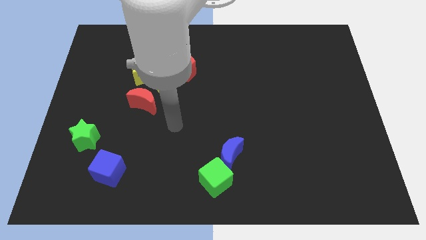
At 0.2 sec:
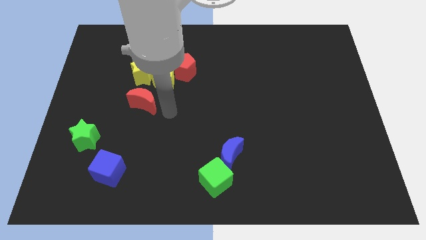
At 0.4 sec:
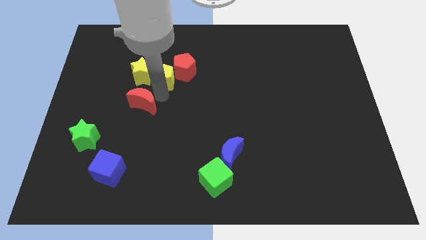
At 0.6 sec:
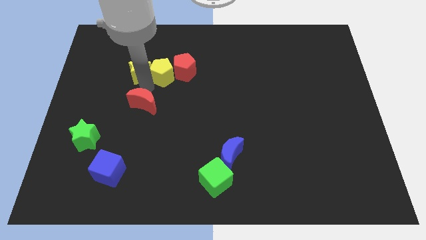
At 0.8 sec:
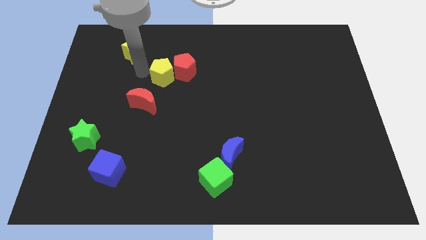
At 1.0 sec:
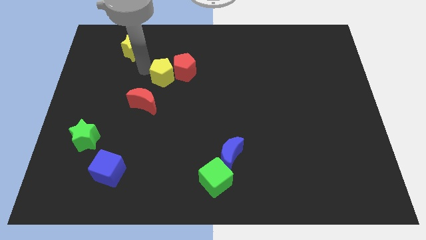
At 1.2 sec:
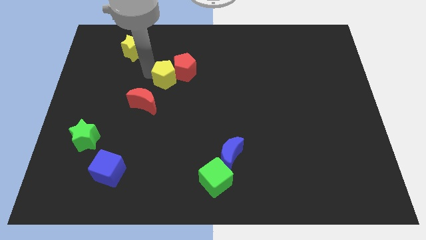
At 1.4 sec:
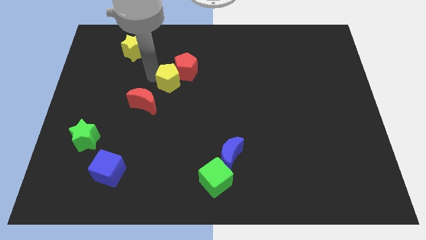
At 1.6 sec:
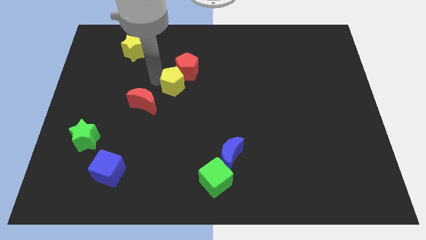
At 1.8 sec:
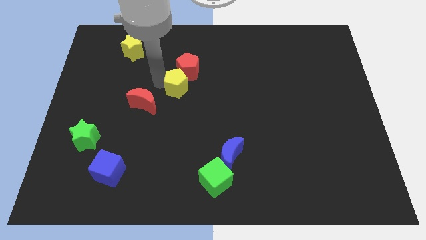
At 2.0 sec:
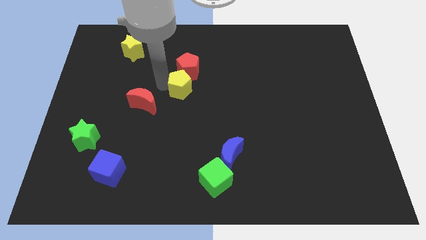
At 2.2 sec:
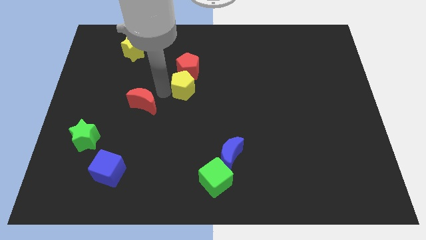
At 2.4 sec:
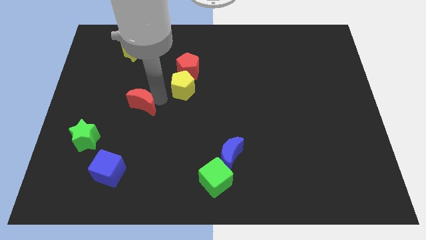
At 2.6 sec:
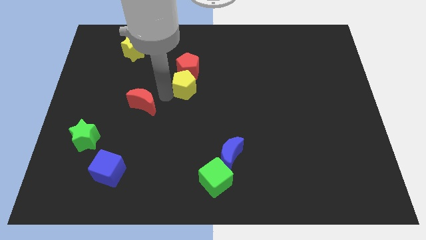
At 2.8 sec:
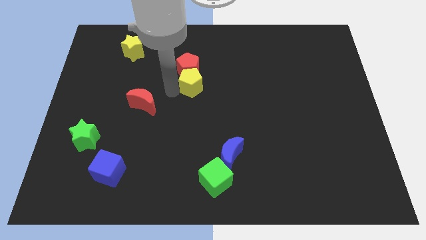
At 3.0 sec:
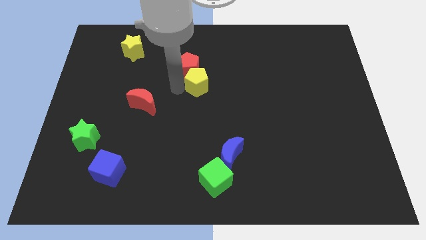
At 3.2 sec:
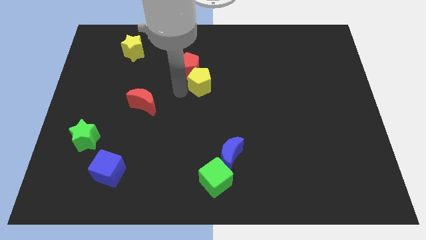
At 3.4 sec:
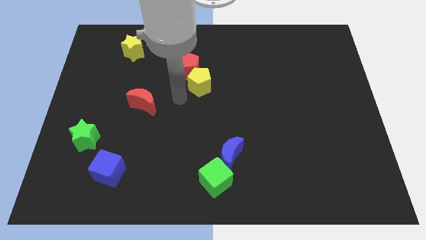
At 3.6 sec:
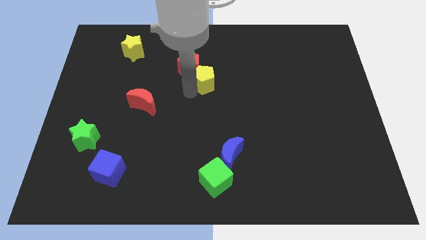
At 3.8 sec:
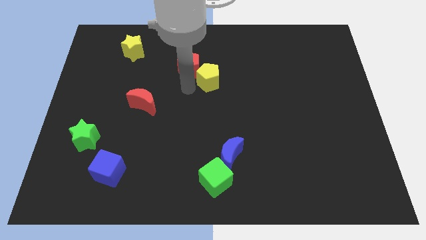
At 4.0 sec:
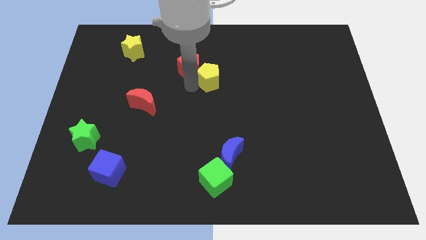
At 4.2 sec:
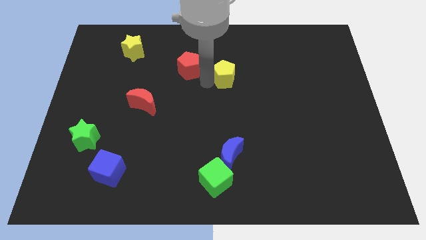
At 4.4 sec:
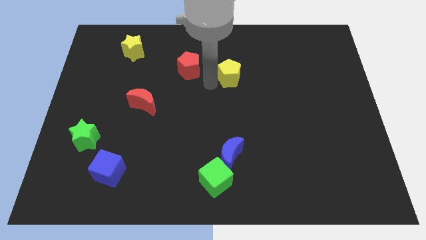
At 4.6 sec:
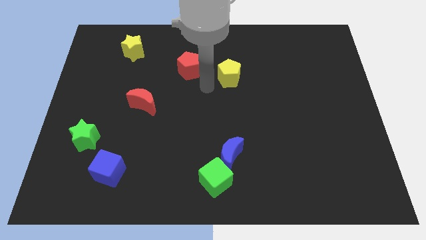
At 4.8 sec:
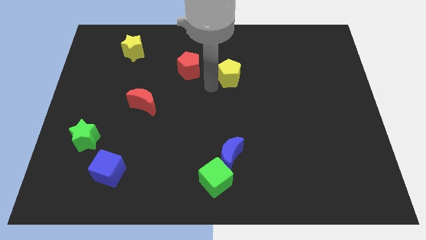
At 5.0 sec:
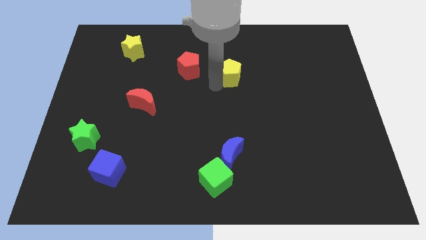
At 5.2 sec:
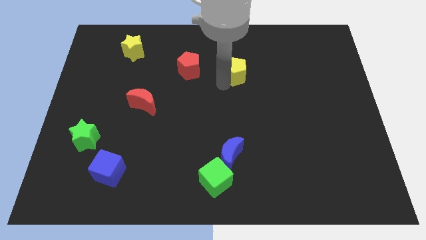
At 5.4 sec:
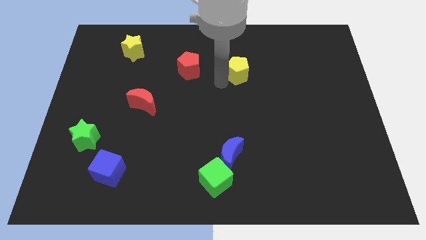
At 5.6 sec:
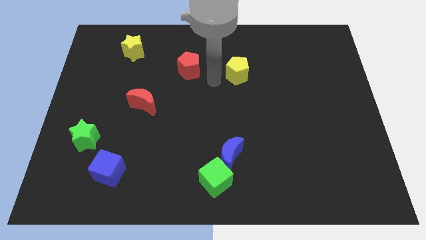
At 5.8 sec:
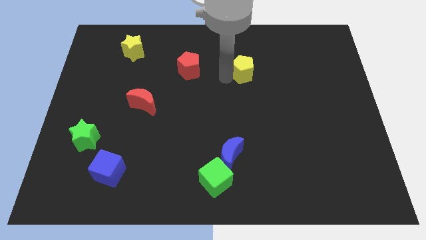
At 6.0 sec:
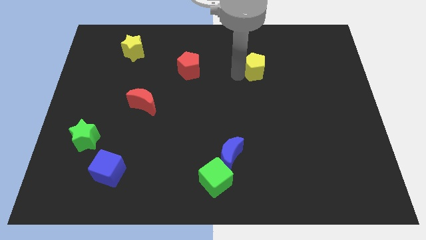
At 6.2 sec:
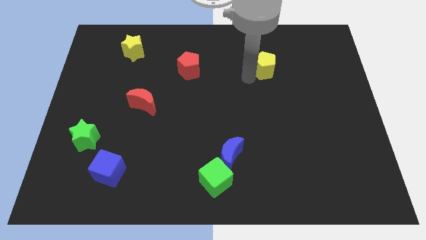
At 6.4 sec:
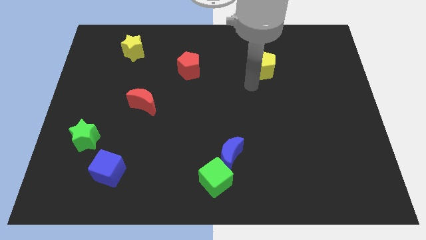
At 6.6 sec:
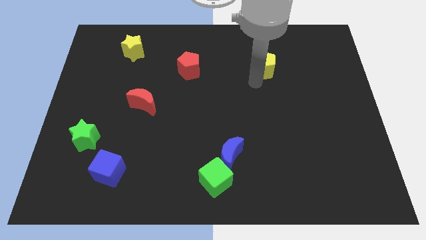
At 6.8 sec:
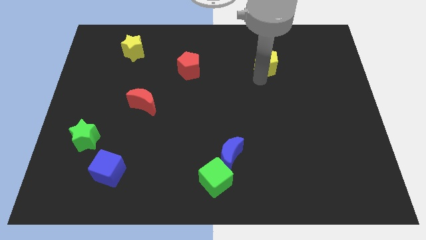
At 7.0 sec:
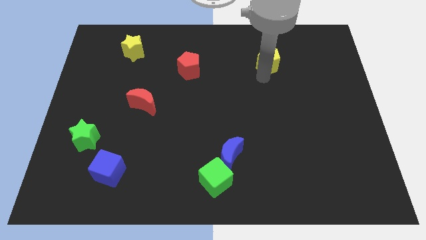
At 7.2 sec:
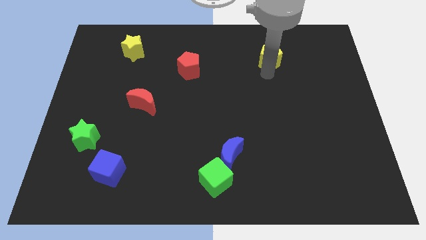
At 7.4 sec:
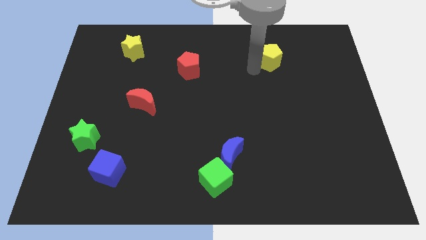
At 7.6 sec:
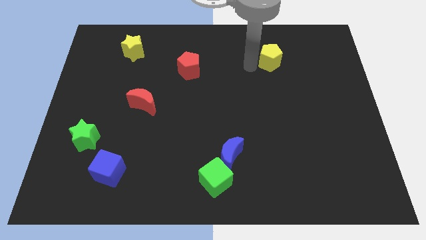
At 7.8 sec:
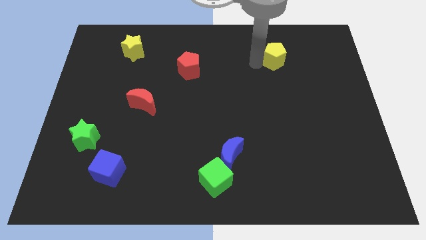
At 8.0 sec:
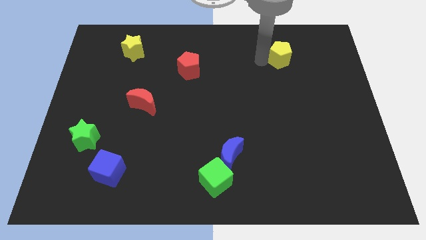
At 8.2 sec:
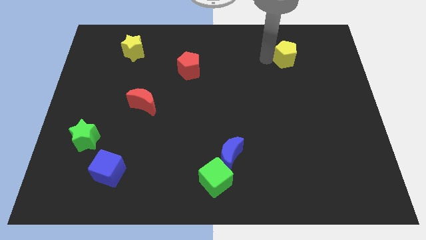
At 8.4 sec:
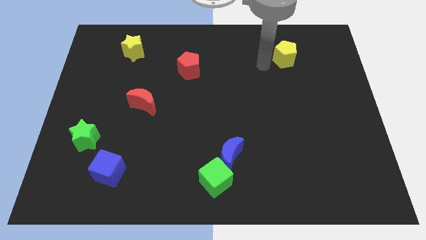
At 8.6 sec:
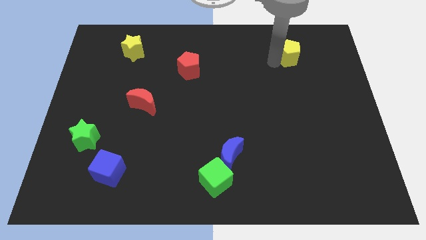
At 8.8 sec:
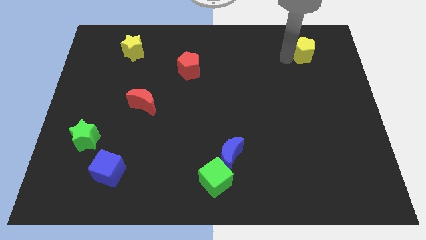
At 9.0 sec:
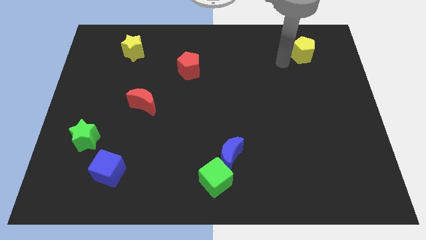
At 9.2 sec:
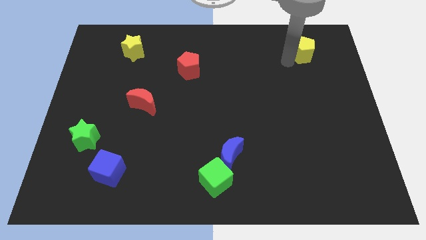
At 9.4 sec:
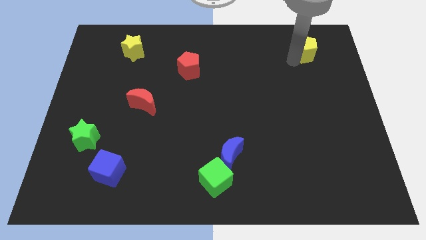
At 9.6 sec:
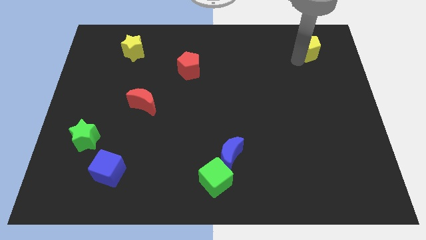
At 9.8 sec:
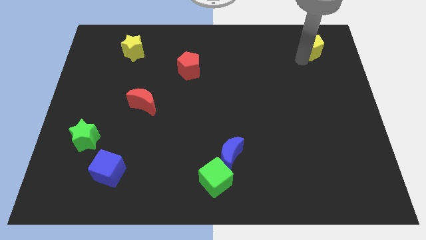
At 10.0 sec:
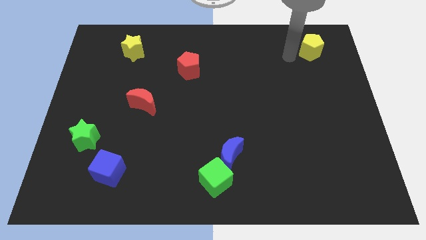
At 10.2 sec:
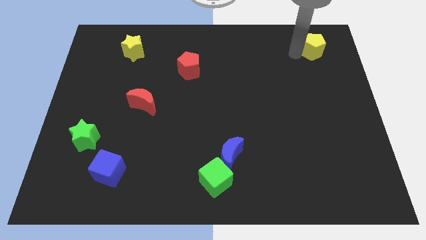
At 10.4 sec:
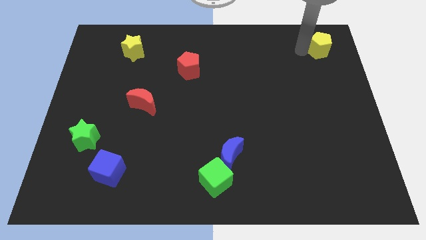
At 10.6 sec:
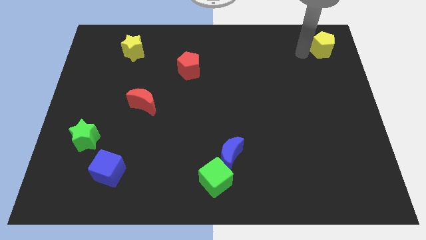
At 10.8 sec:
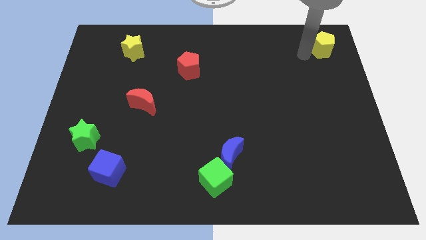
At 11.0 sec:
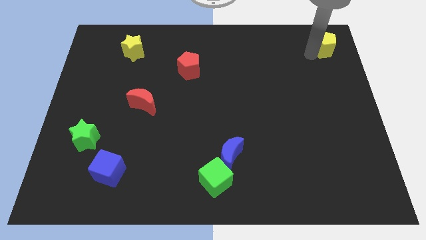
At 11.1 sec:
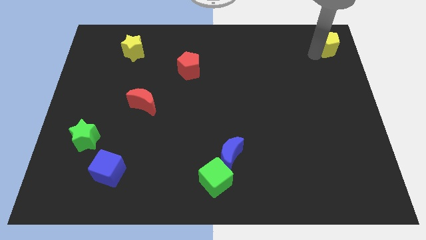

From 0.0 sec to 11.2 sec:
put the yellow pentagon to the top right

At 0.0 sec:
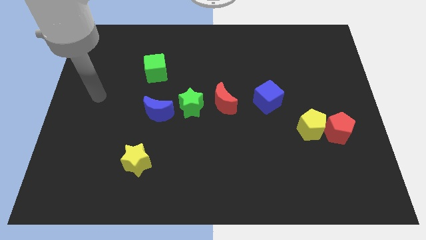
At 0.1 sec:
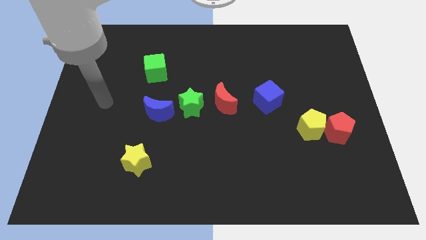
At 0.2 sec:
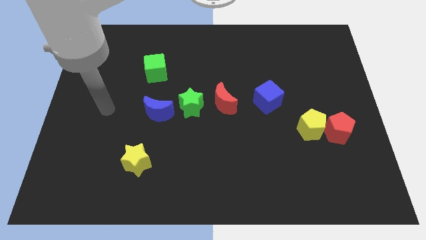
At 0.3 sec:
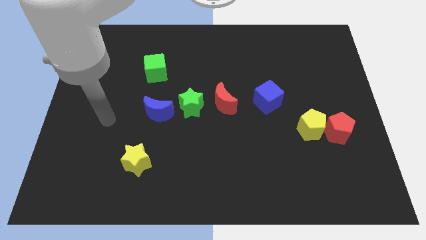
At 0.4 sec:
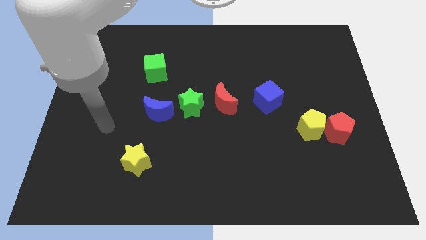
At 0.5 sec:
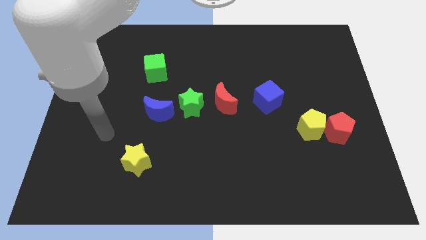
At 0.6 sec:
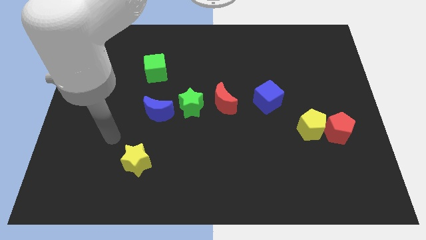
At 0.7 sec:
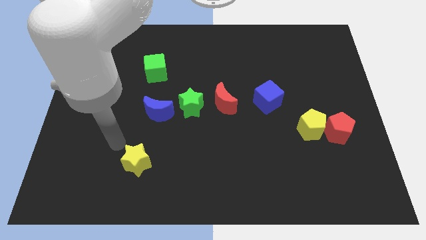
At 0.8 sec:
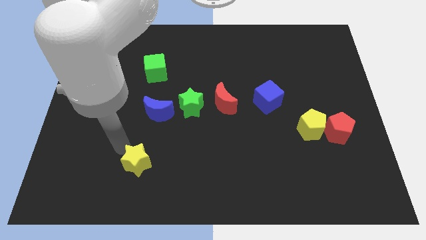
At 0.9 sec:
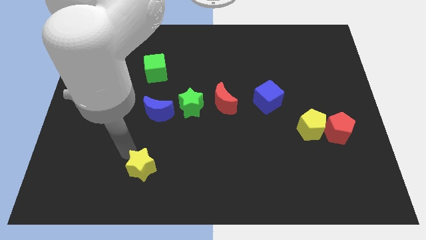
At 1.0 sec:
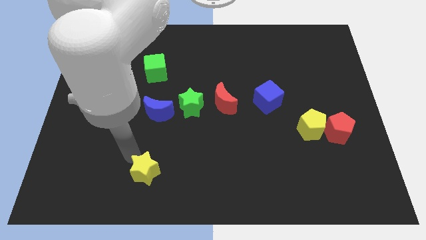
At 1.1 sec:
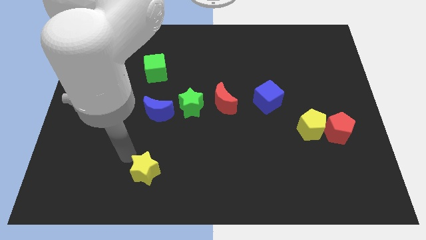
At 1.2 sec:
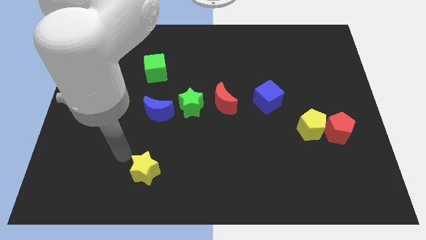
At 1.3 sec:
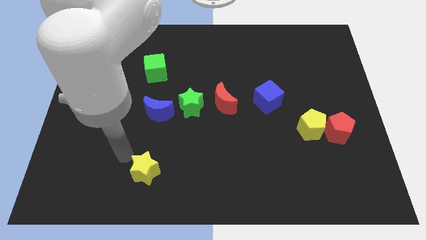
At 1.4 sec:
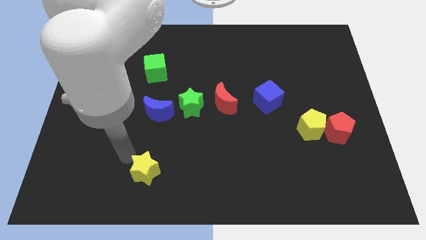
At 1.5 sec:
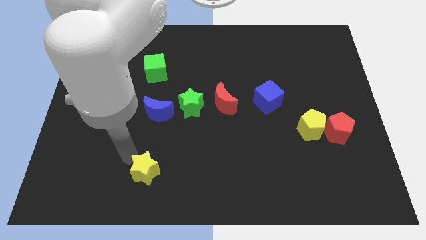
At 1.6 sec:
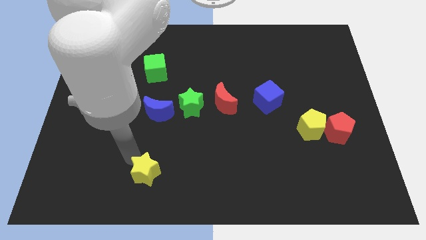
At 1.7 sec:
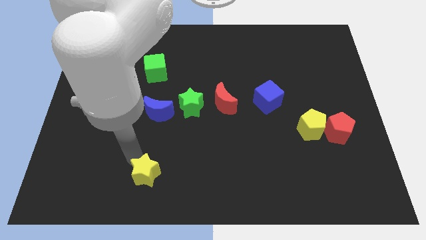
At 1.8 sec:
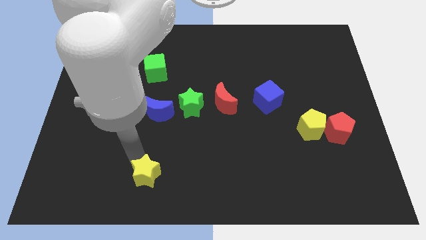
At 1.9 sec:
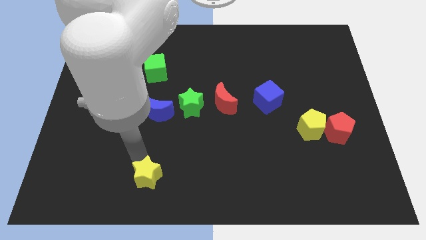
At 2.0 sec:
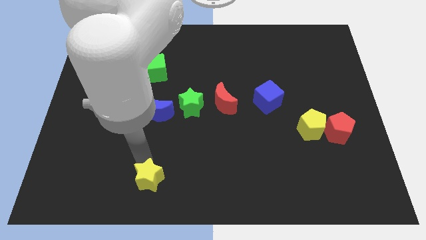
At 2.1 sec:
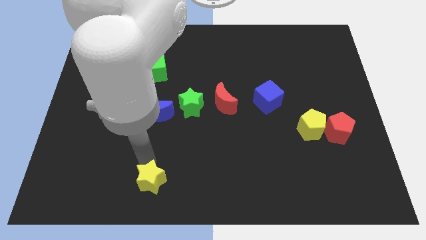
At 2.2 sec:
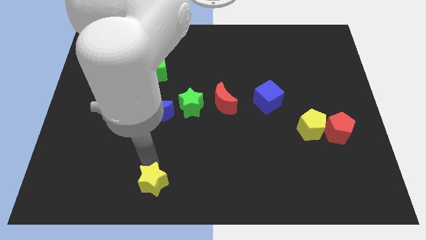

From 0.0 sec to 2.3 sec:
move the yellow star to the bottom side
